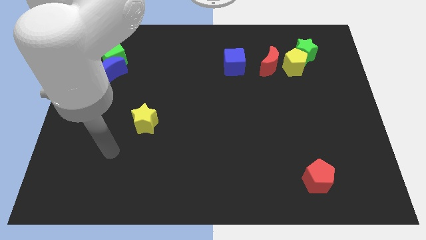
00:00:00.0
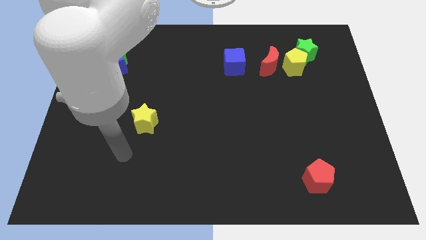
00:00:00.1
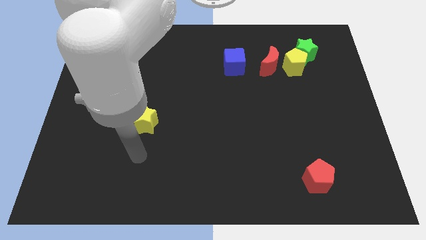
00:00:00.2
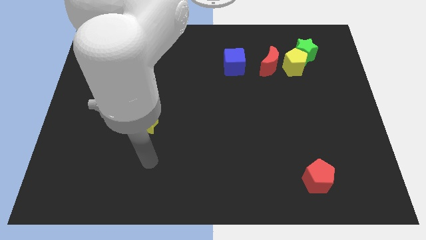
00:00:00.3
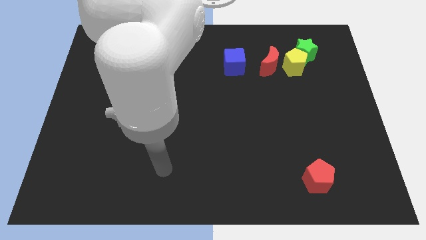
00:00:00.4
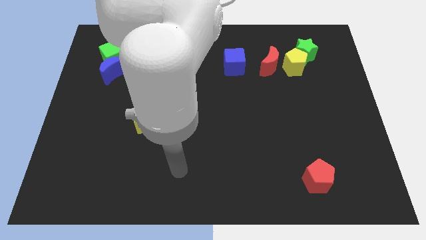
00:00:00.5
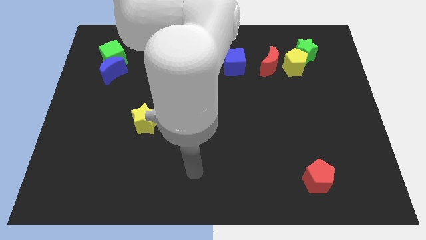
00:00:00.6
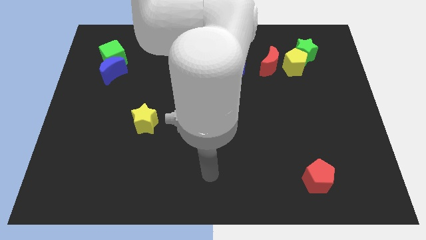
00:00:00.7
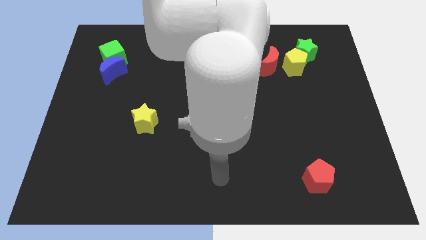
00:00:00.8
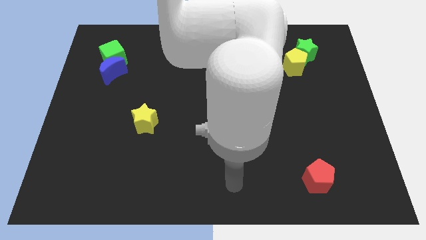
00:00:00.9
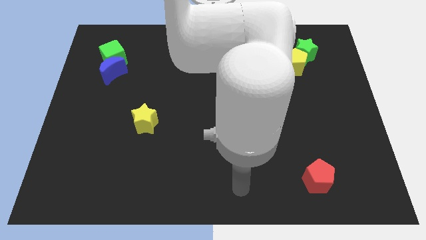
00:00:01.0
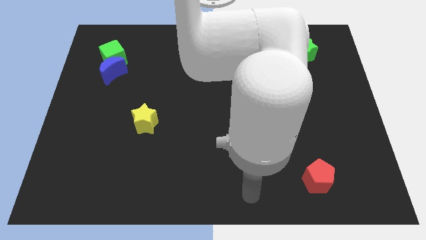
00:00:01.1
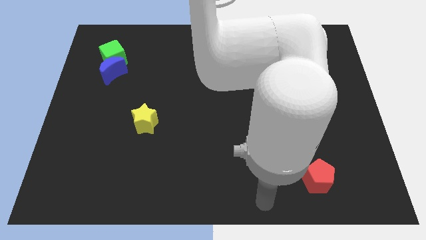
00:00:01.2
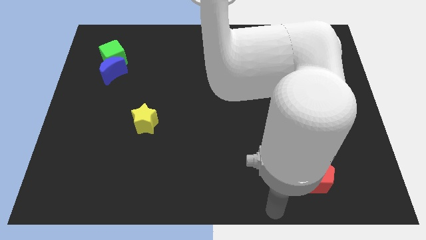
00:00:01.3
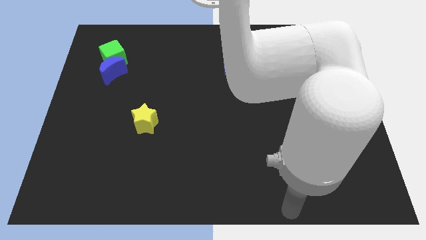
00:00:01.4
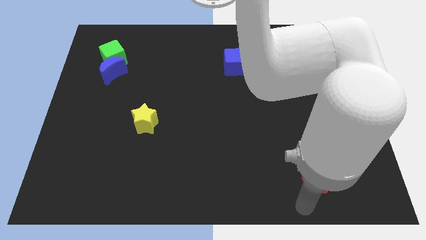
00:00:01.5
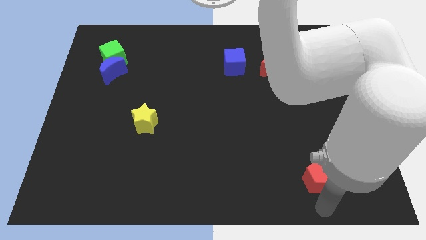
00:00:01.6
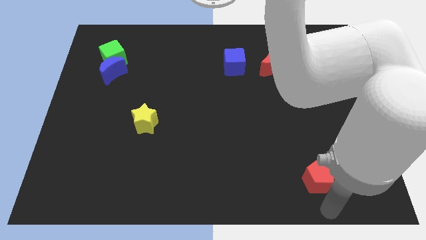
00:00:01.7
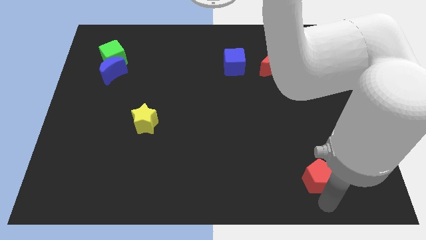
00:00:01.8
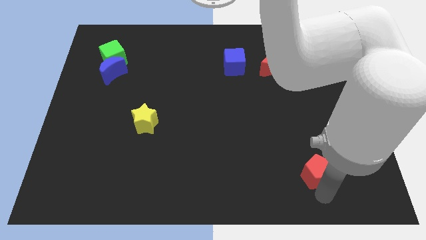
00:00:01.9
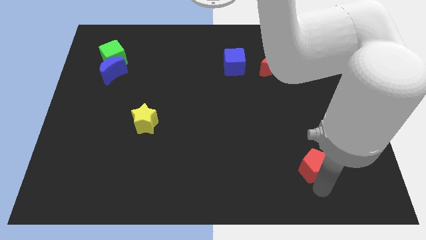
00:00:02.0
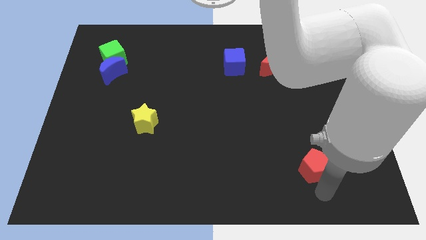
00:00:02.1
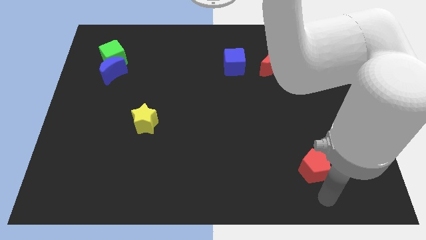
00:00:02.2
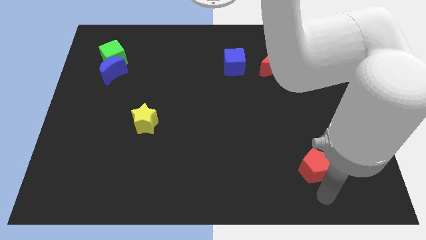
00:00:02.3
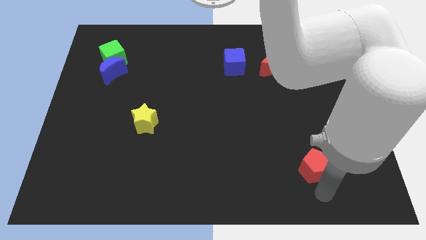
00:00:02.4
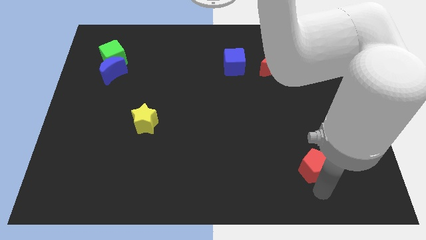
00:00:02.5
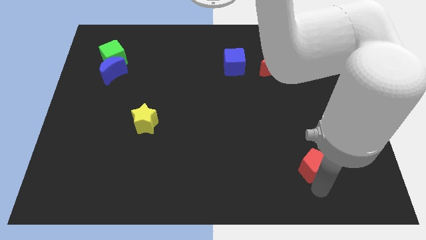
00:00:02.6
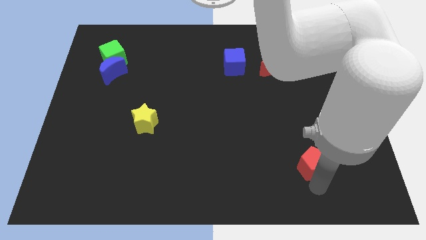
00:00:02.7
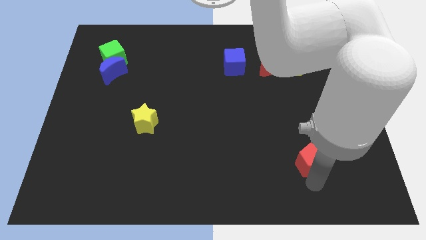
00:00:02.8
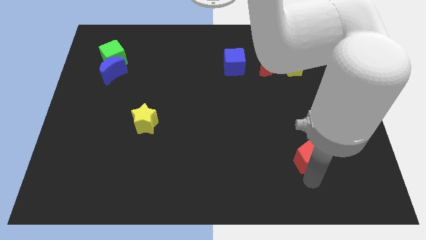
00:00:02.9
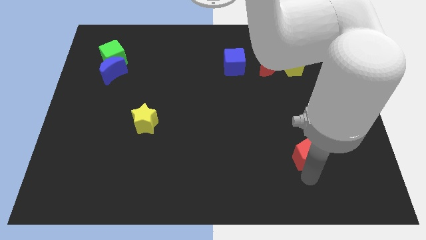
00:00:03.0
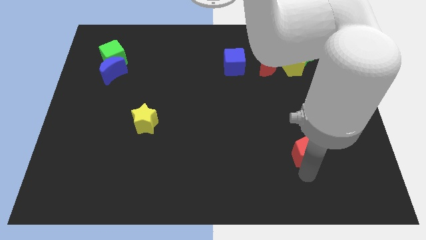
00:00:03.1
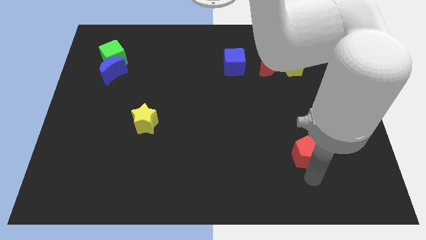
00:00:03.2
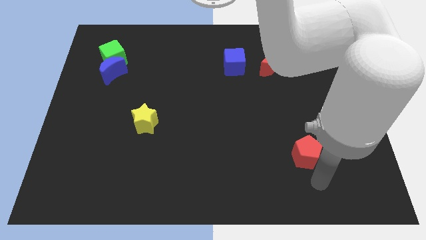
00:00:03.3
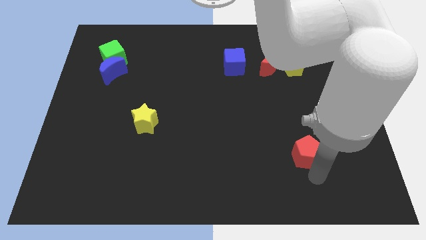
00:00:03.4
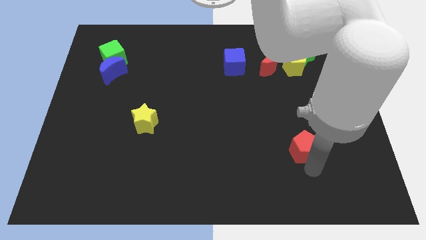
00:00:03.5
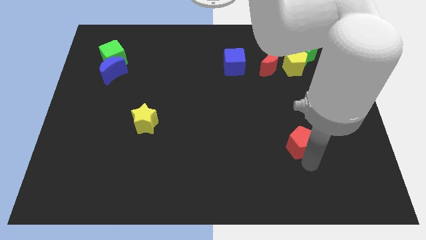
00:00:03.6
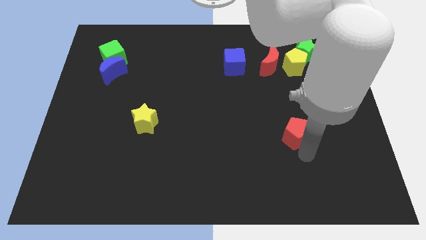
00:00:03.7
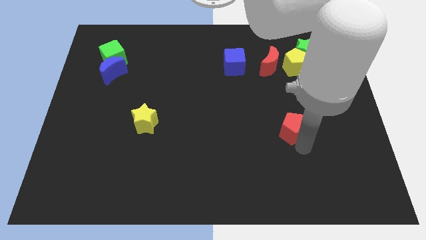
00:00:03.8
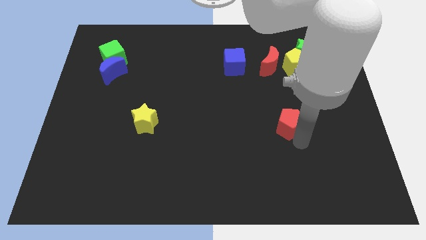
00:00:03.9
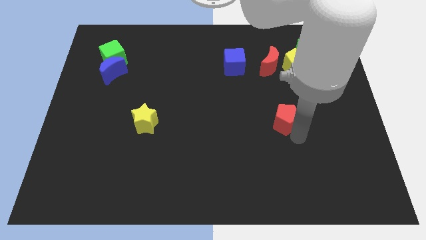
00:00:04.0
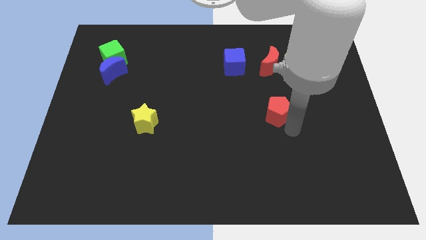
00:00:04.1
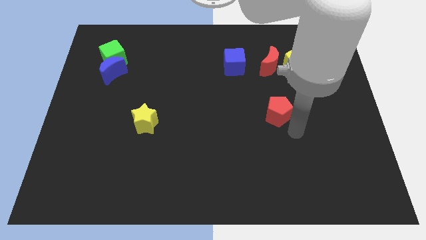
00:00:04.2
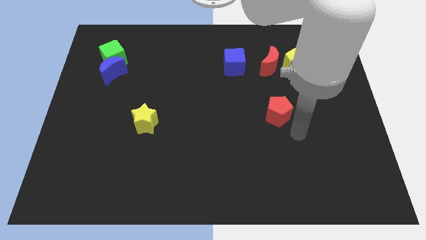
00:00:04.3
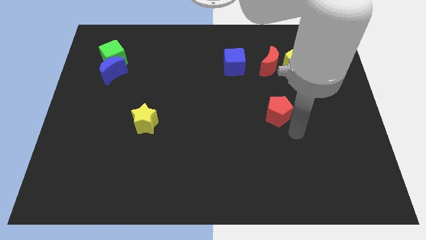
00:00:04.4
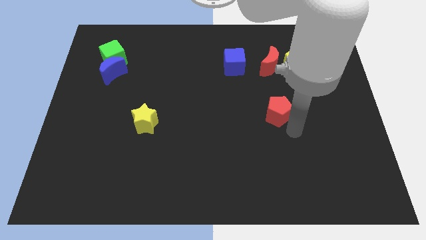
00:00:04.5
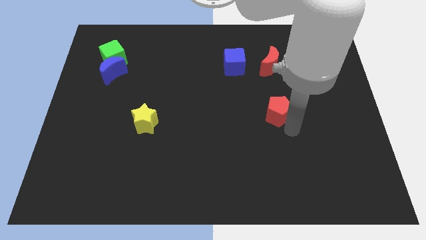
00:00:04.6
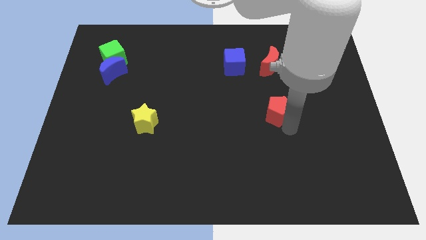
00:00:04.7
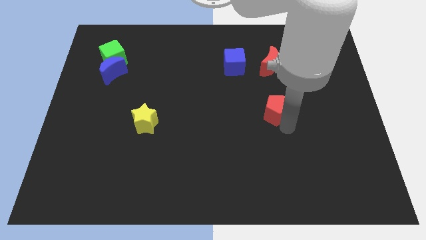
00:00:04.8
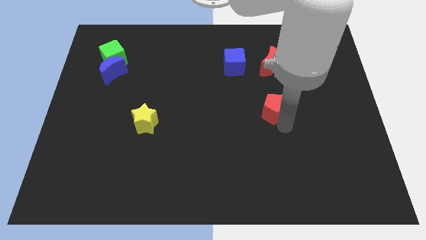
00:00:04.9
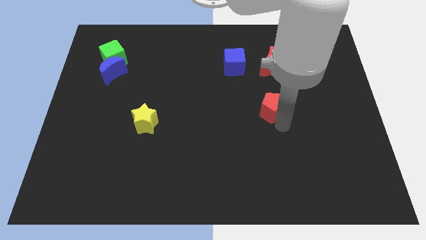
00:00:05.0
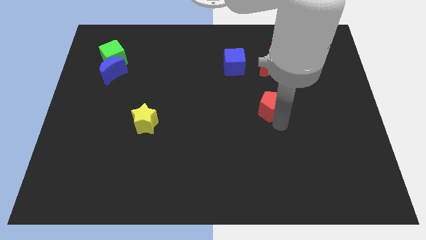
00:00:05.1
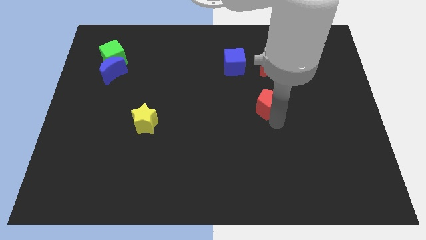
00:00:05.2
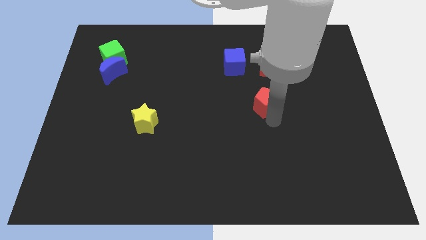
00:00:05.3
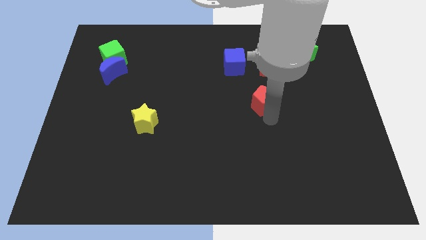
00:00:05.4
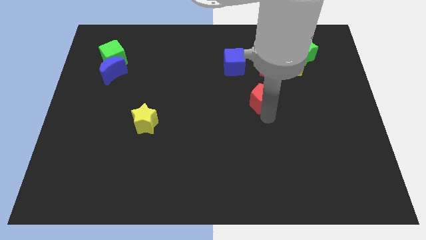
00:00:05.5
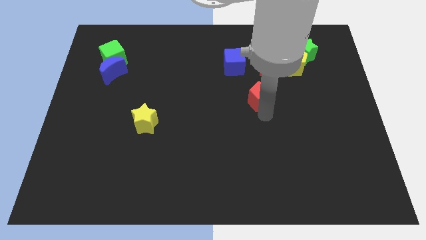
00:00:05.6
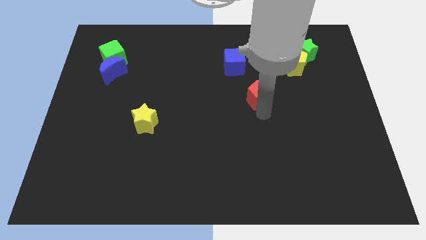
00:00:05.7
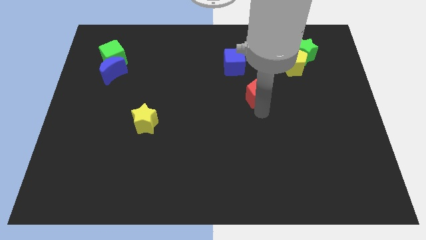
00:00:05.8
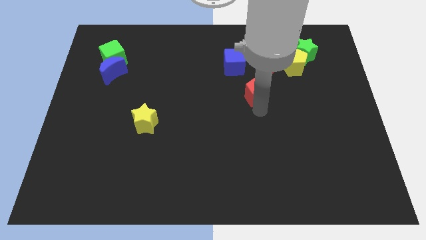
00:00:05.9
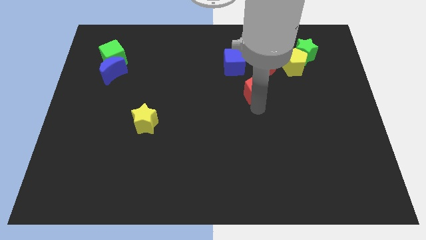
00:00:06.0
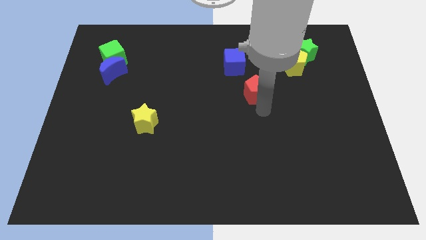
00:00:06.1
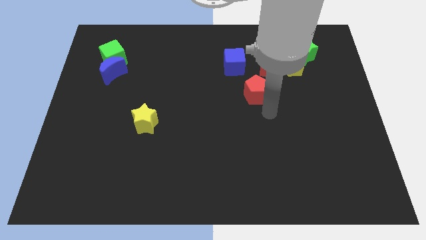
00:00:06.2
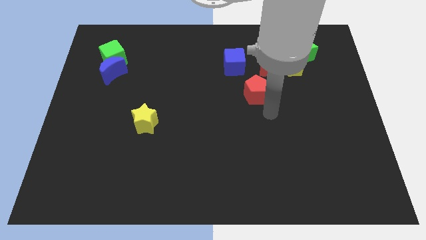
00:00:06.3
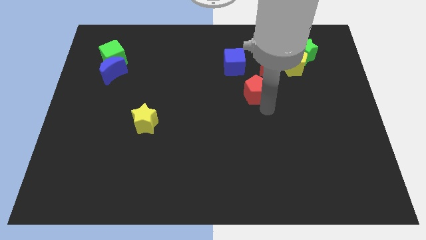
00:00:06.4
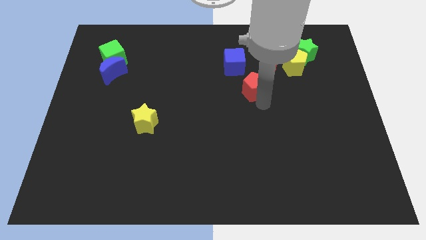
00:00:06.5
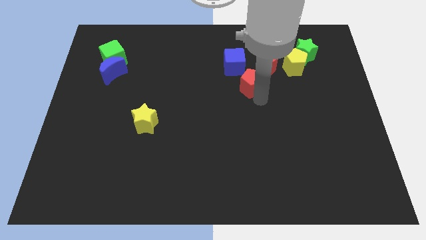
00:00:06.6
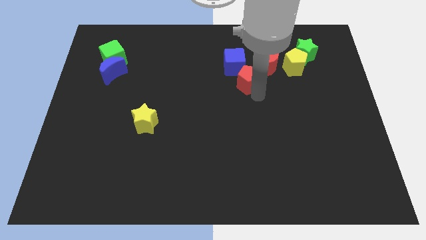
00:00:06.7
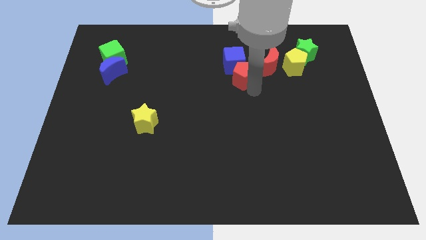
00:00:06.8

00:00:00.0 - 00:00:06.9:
put the red pentagon close to the blue cube
